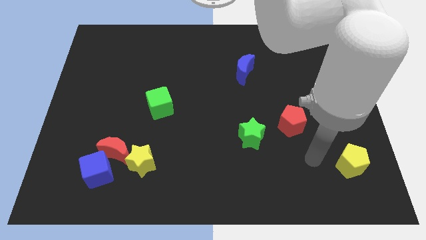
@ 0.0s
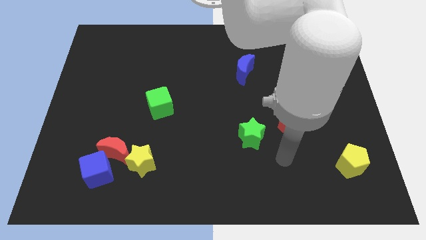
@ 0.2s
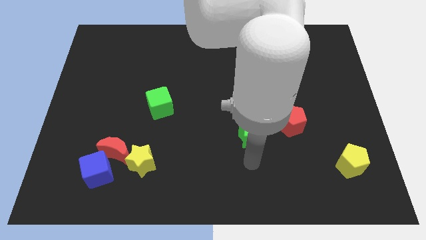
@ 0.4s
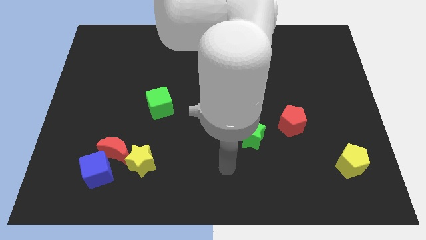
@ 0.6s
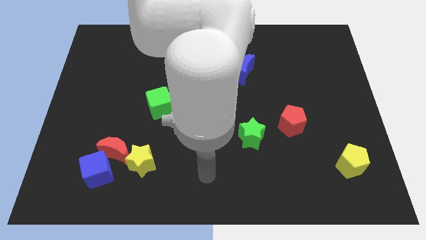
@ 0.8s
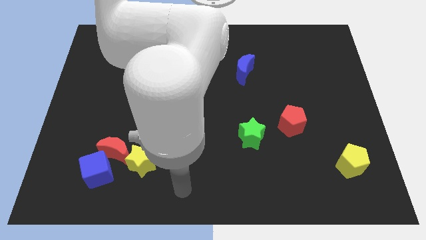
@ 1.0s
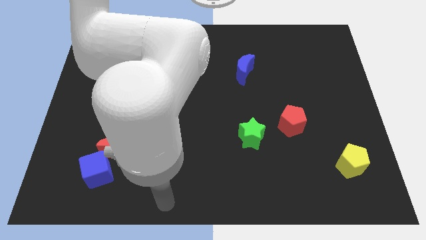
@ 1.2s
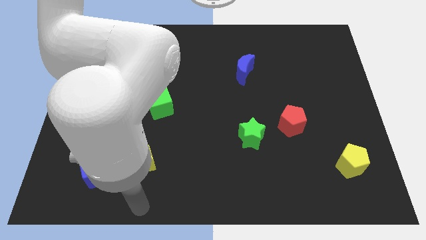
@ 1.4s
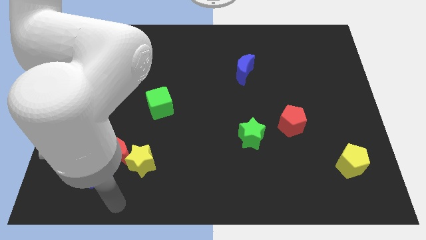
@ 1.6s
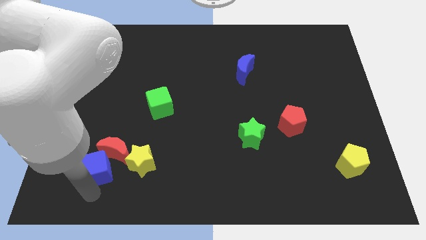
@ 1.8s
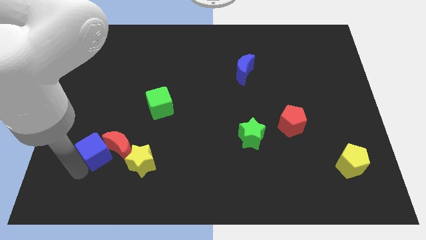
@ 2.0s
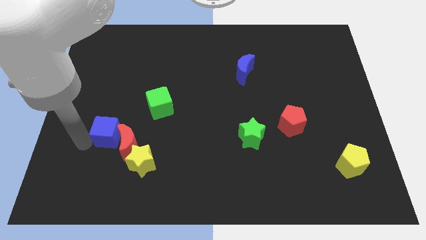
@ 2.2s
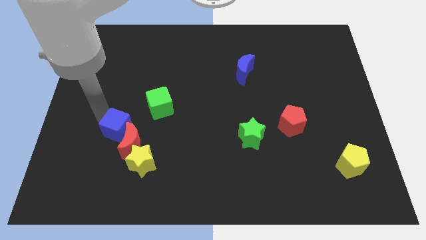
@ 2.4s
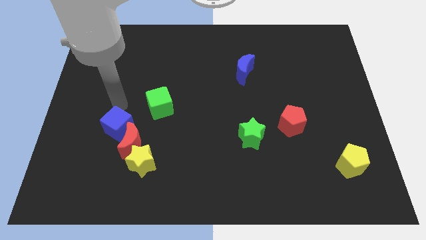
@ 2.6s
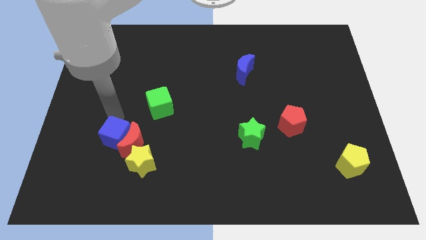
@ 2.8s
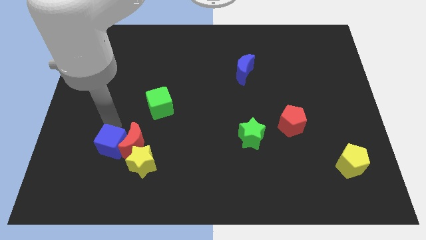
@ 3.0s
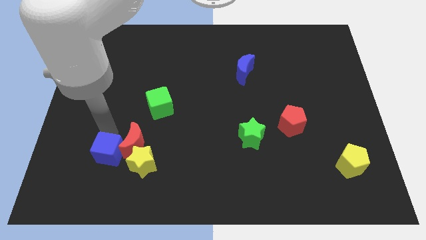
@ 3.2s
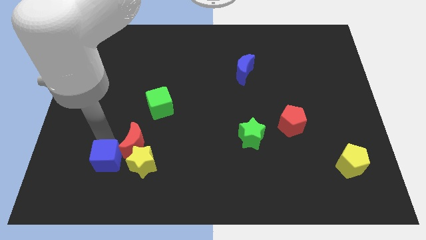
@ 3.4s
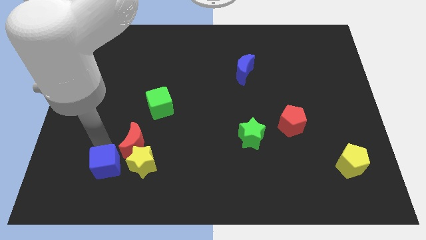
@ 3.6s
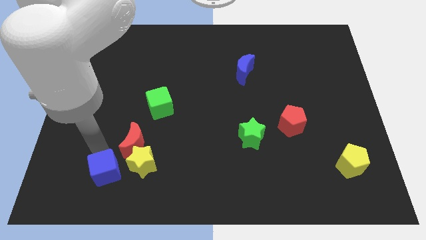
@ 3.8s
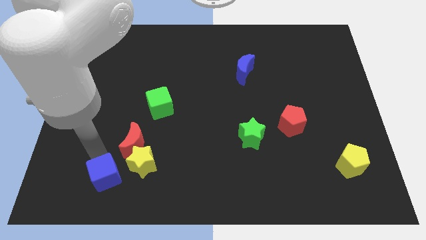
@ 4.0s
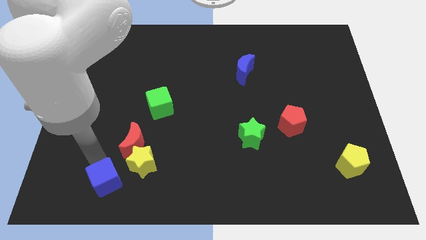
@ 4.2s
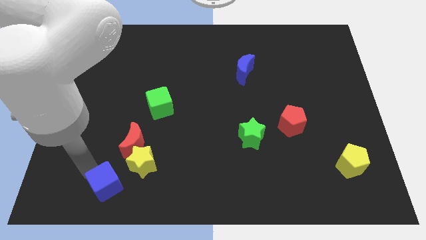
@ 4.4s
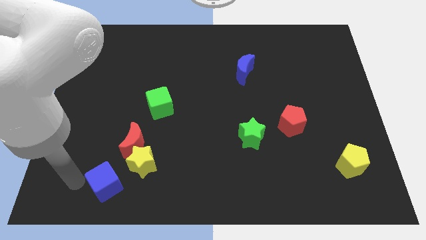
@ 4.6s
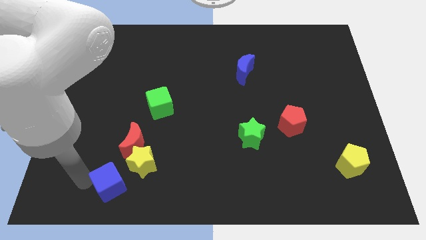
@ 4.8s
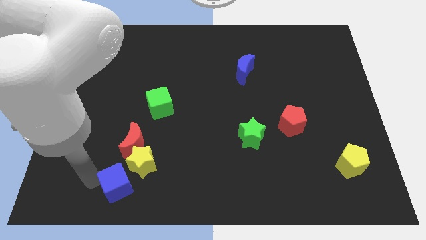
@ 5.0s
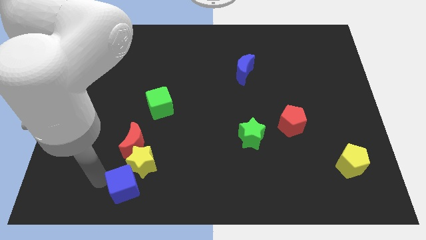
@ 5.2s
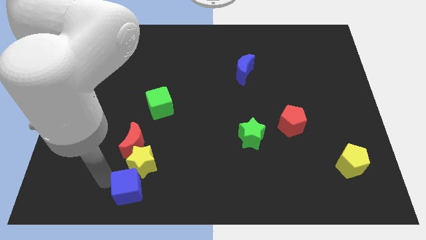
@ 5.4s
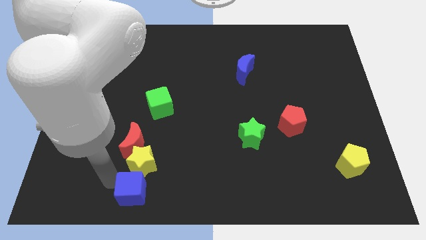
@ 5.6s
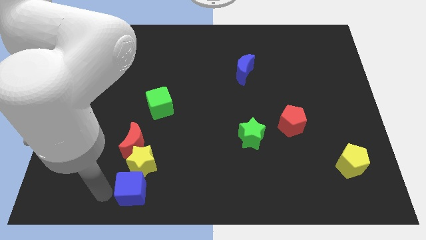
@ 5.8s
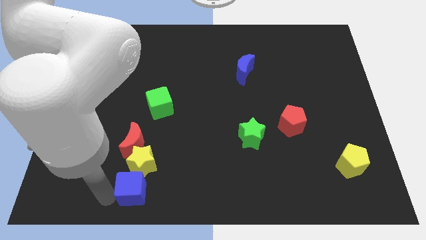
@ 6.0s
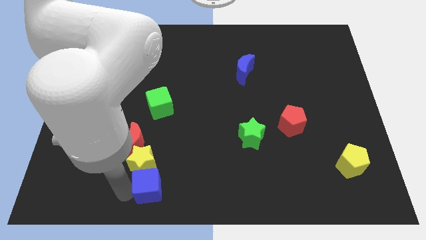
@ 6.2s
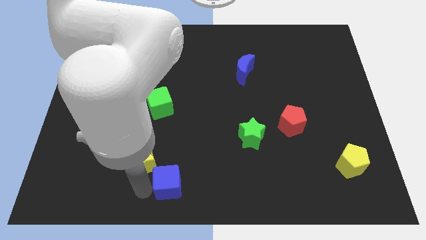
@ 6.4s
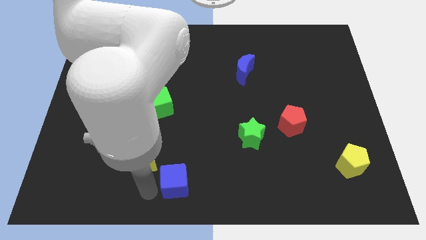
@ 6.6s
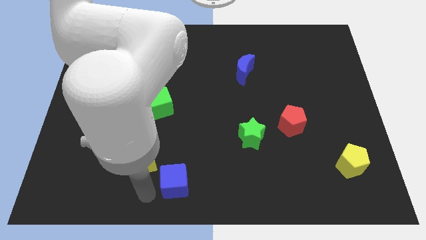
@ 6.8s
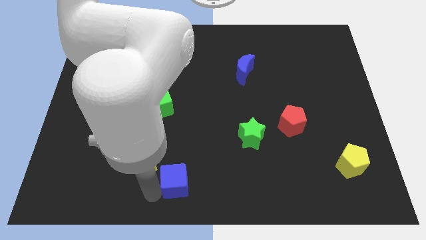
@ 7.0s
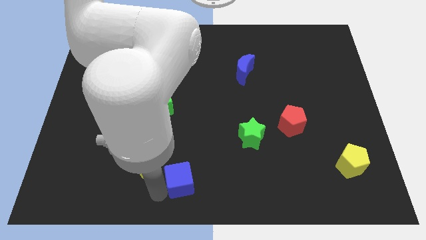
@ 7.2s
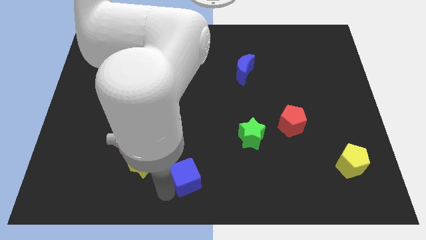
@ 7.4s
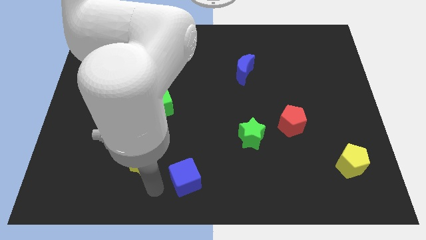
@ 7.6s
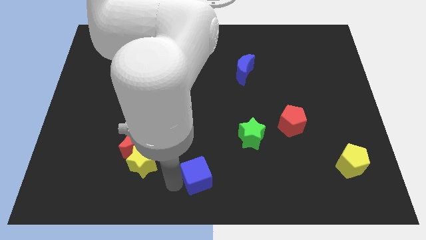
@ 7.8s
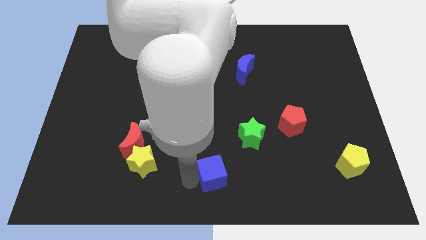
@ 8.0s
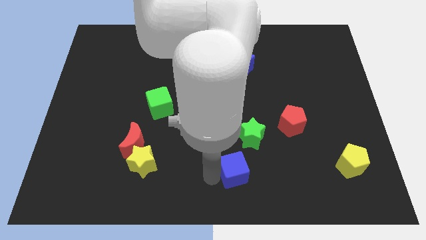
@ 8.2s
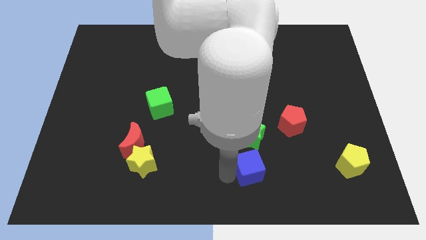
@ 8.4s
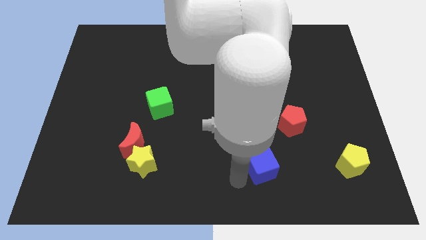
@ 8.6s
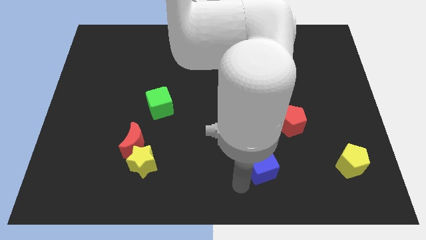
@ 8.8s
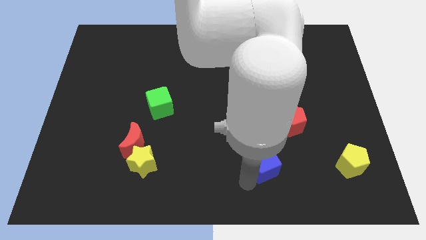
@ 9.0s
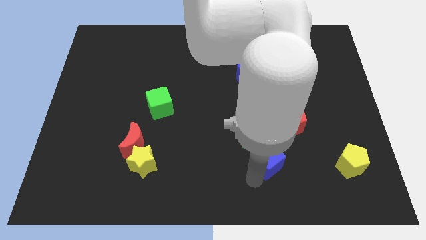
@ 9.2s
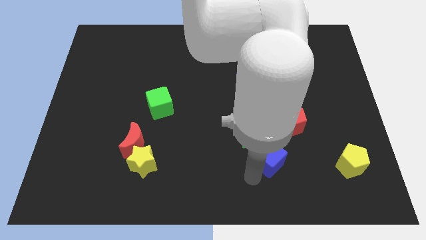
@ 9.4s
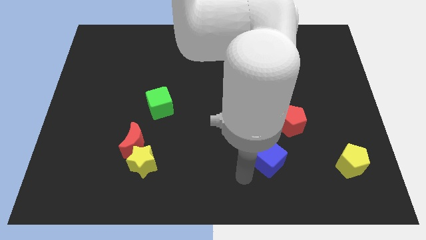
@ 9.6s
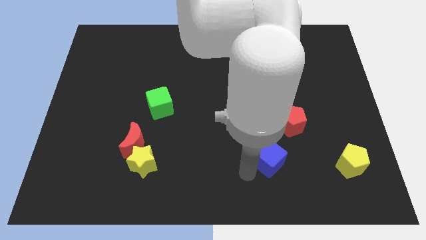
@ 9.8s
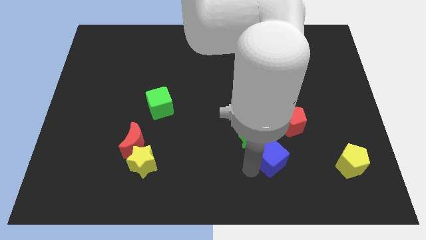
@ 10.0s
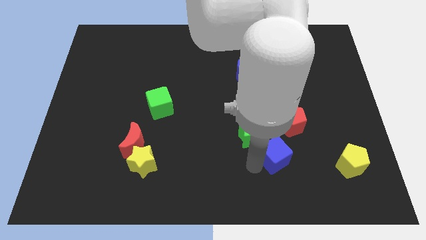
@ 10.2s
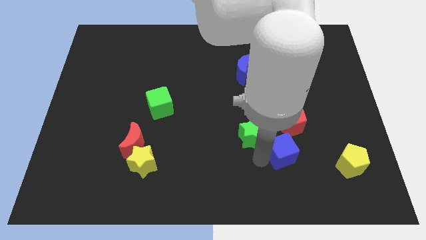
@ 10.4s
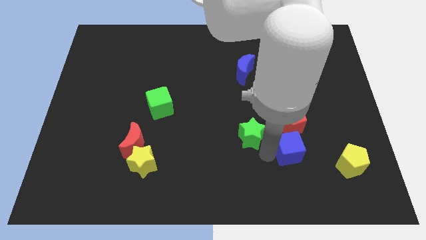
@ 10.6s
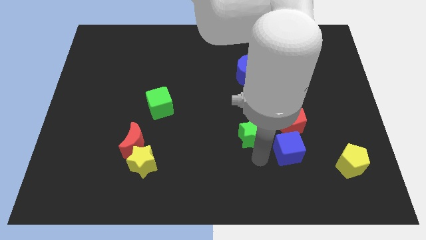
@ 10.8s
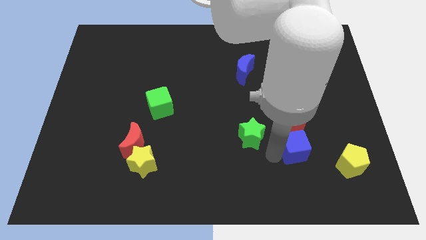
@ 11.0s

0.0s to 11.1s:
push the blue cube to the bottom right side of the red pentagon

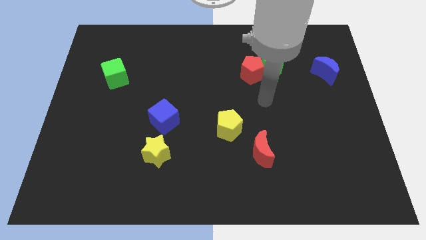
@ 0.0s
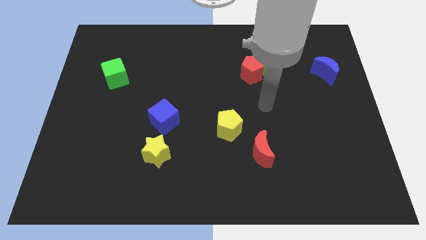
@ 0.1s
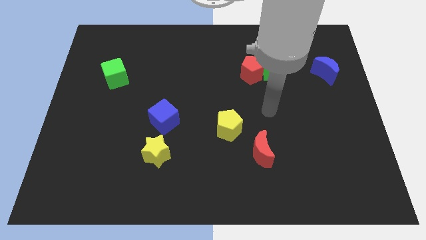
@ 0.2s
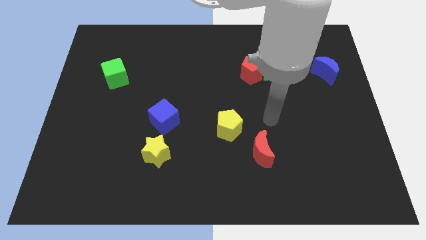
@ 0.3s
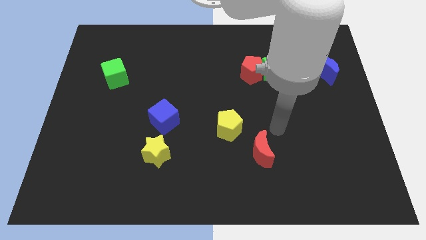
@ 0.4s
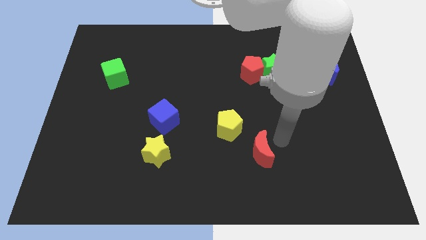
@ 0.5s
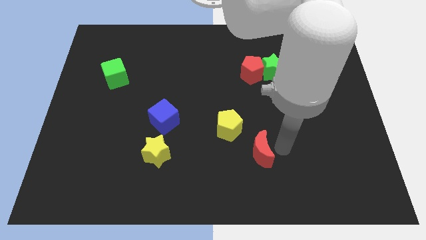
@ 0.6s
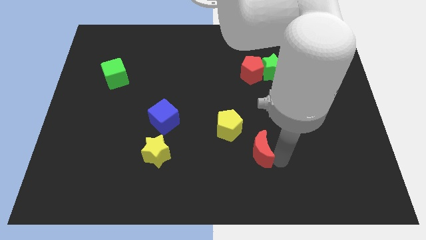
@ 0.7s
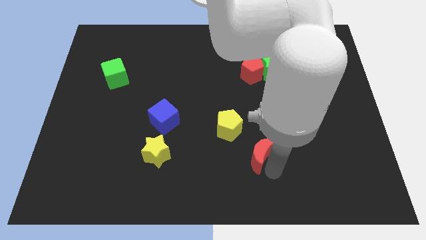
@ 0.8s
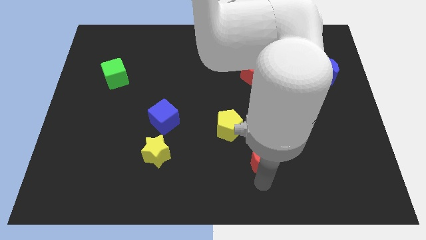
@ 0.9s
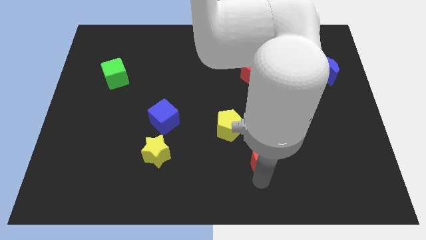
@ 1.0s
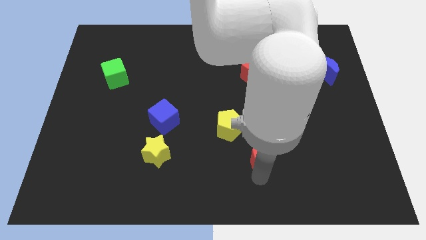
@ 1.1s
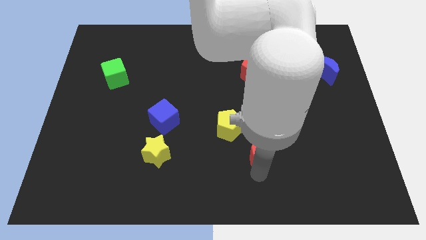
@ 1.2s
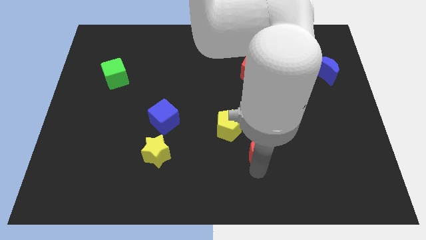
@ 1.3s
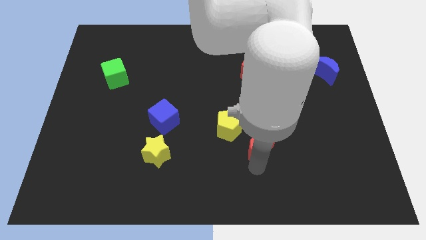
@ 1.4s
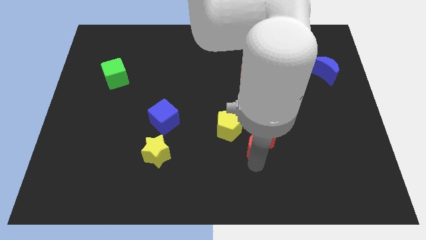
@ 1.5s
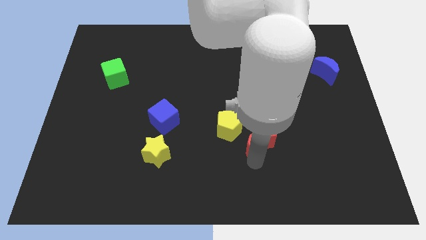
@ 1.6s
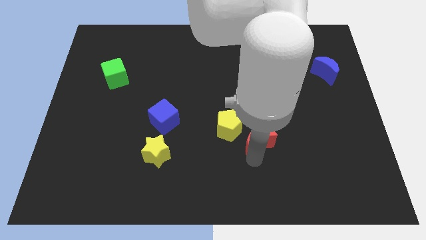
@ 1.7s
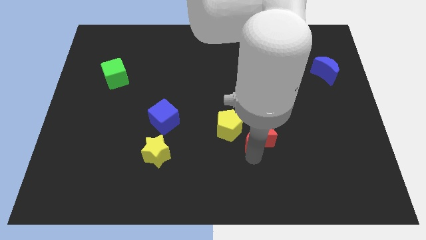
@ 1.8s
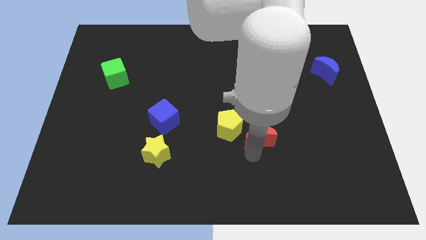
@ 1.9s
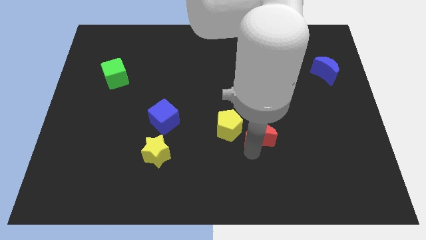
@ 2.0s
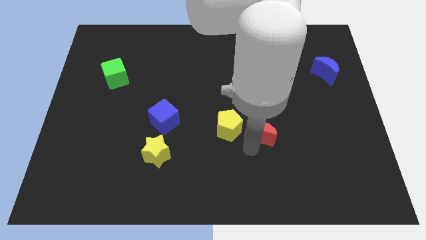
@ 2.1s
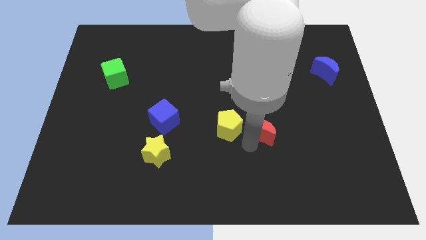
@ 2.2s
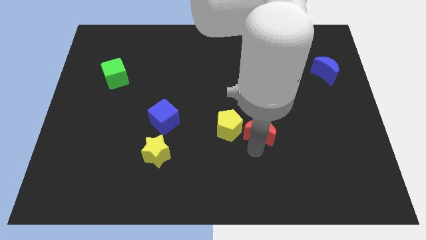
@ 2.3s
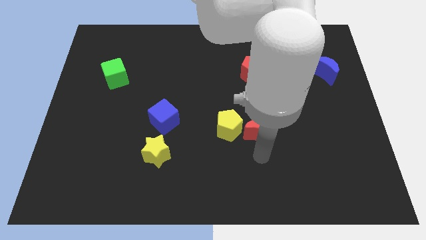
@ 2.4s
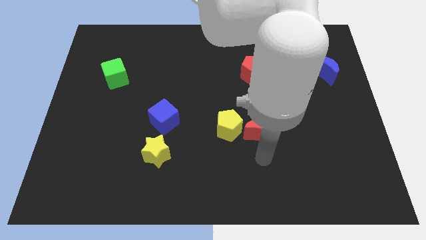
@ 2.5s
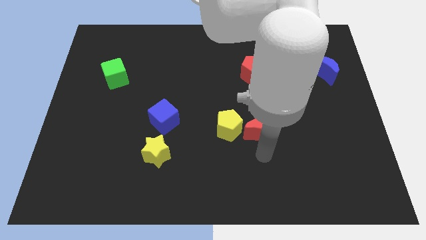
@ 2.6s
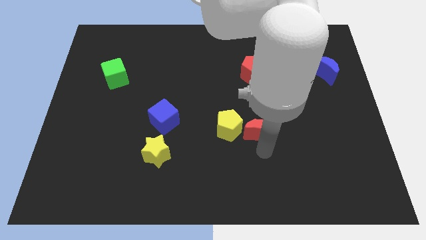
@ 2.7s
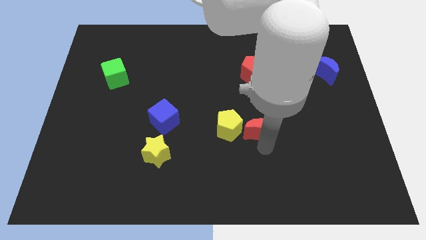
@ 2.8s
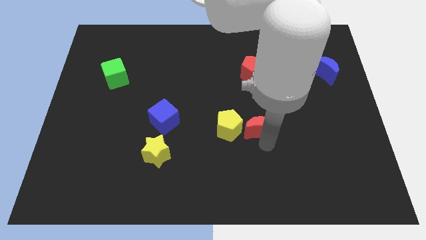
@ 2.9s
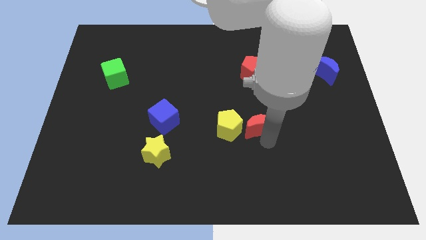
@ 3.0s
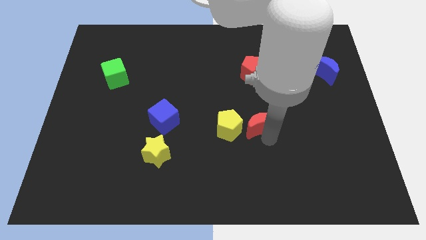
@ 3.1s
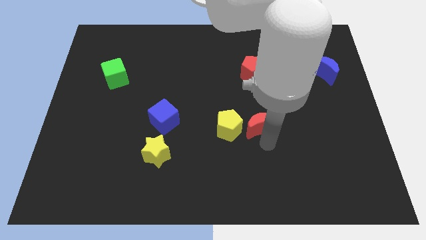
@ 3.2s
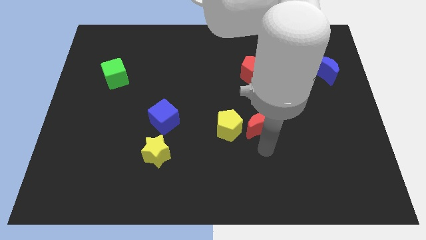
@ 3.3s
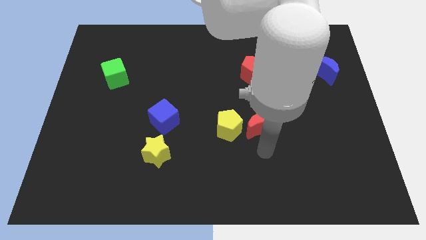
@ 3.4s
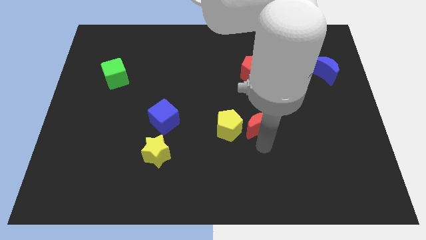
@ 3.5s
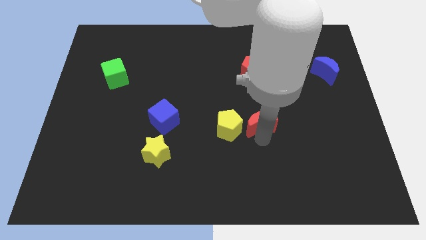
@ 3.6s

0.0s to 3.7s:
push the red moon to the bottom of the red pentagon
